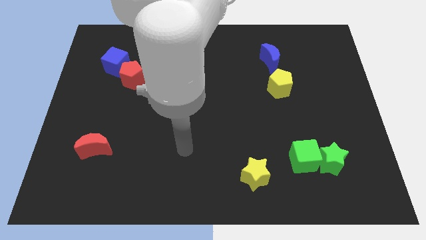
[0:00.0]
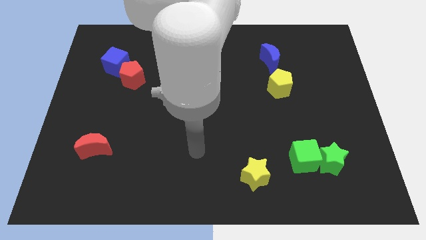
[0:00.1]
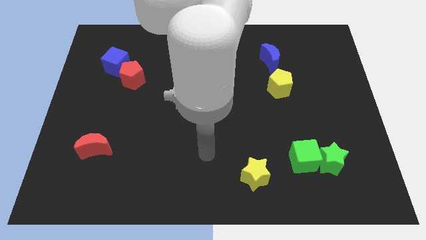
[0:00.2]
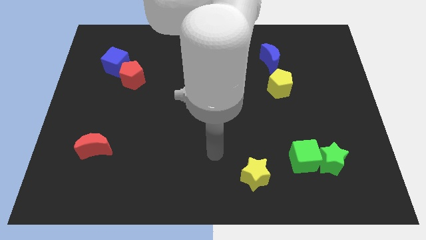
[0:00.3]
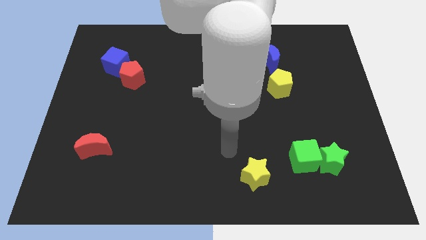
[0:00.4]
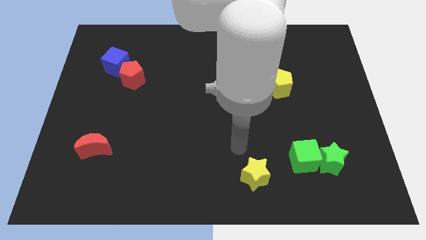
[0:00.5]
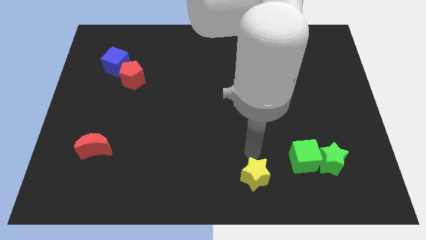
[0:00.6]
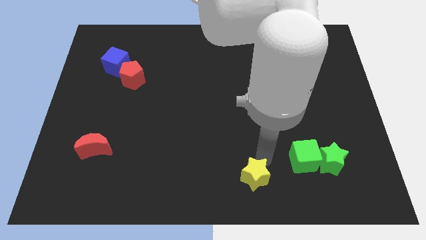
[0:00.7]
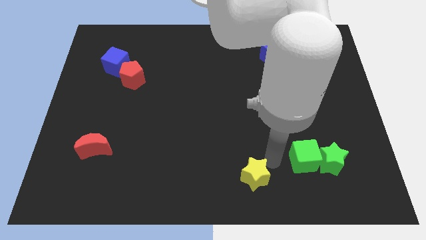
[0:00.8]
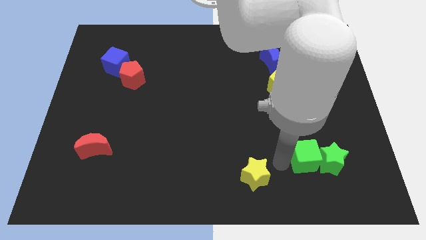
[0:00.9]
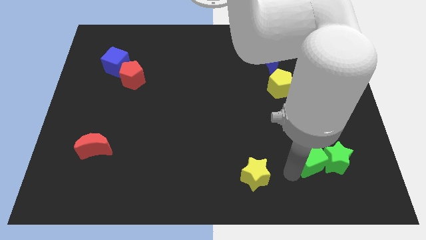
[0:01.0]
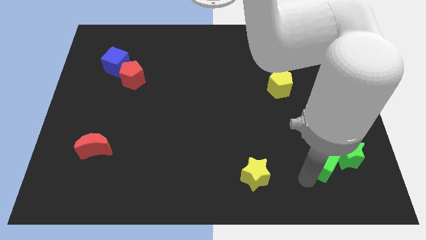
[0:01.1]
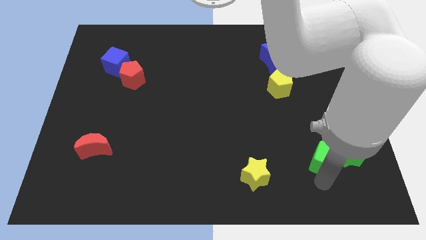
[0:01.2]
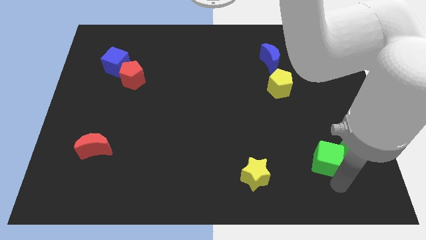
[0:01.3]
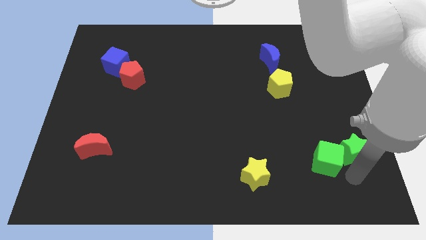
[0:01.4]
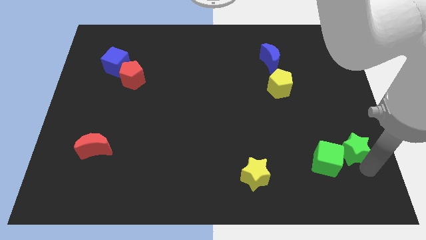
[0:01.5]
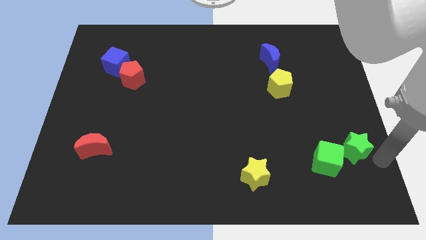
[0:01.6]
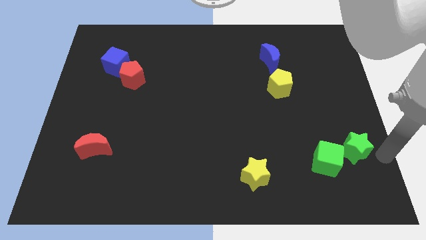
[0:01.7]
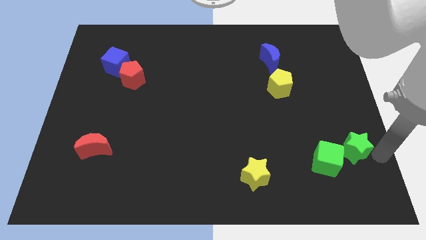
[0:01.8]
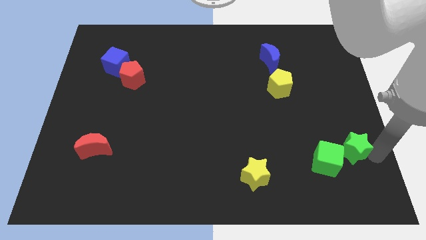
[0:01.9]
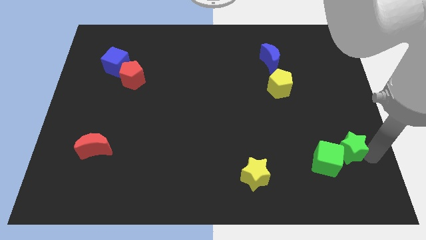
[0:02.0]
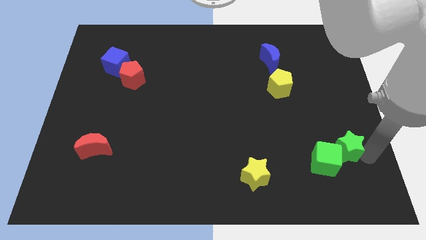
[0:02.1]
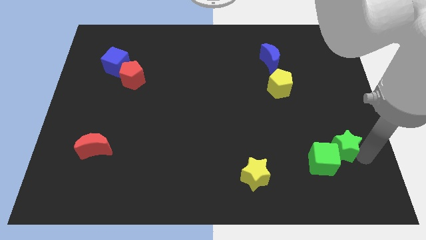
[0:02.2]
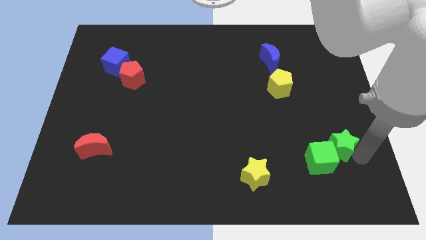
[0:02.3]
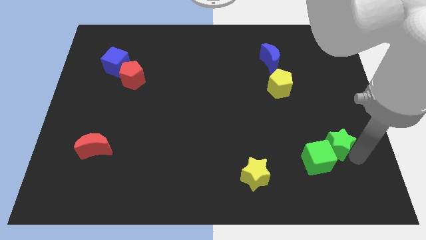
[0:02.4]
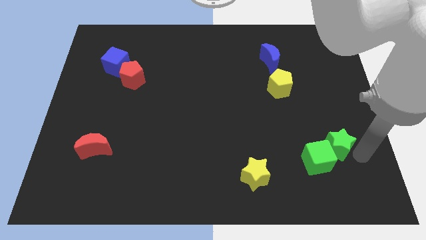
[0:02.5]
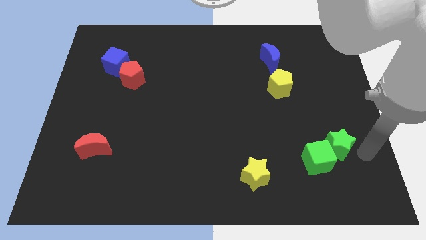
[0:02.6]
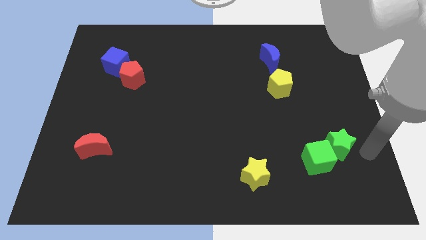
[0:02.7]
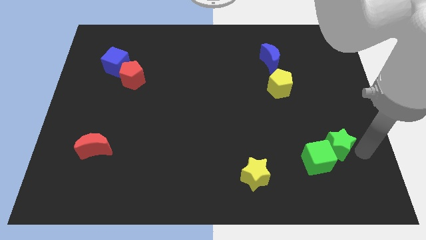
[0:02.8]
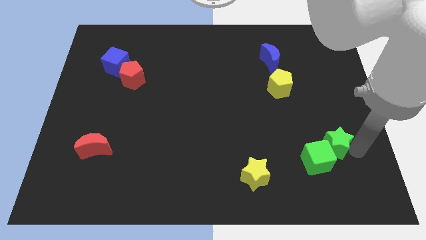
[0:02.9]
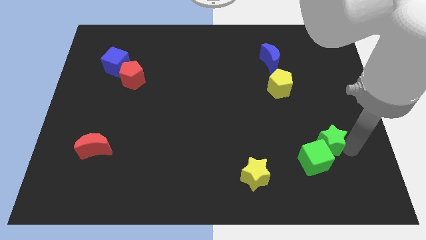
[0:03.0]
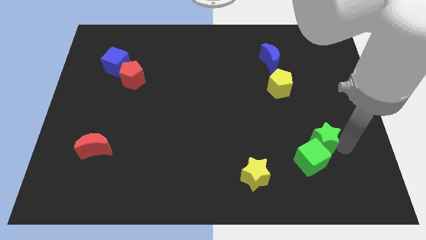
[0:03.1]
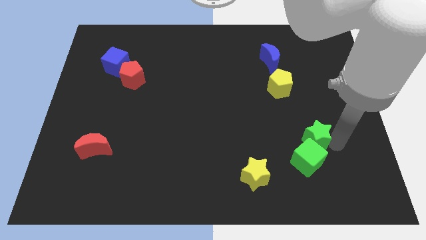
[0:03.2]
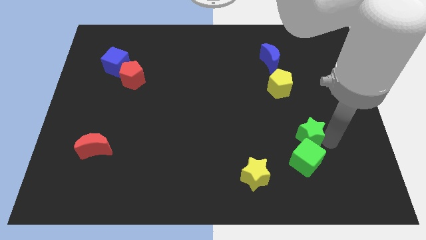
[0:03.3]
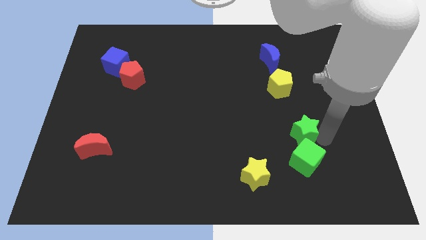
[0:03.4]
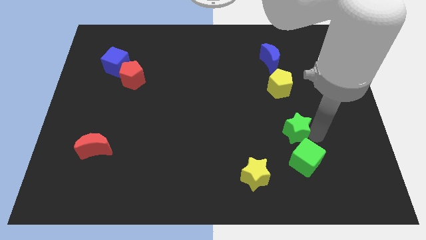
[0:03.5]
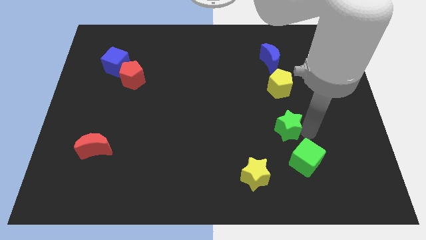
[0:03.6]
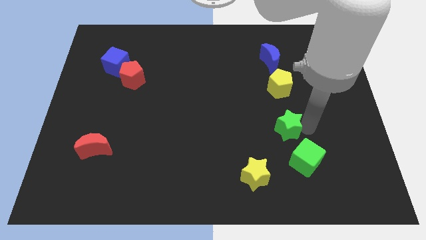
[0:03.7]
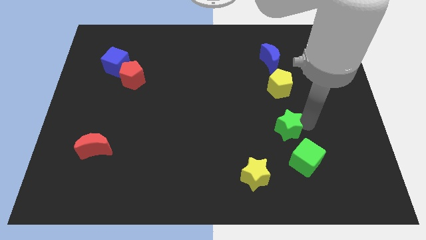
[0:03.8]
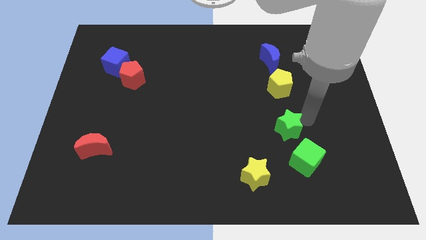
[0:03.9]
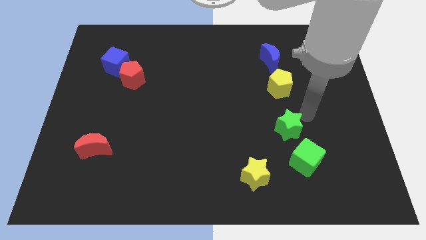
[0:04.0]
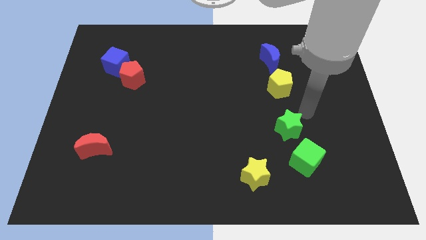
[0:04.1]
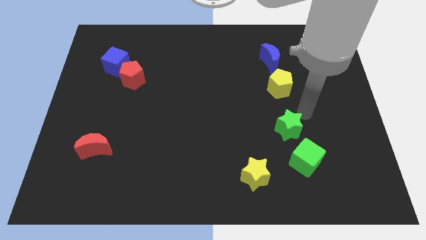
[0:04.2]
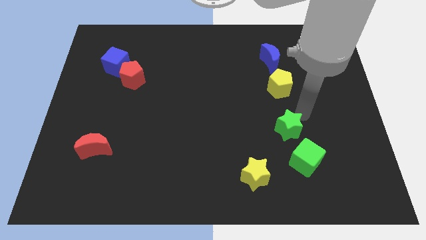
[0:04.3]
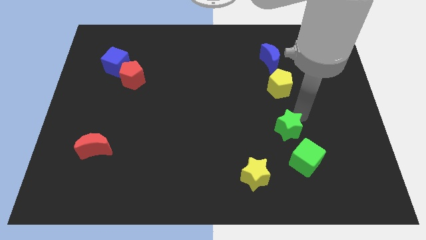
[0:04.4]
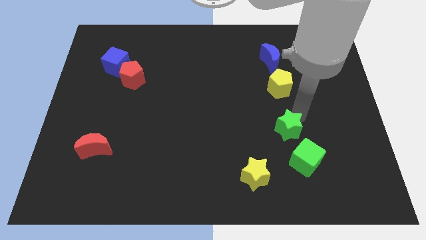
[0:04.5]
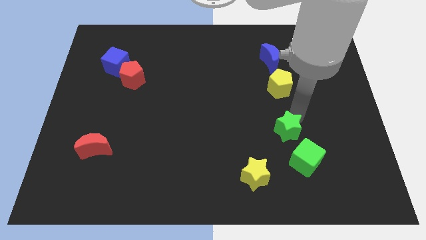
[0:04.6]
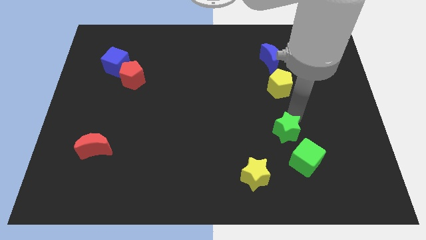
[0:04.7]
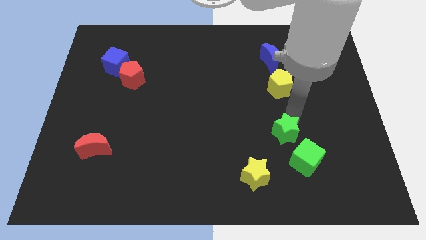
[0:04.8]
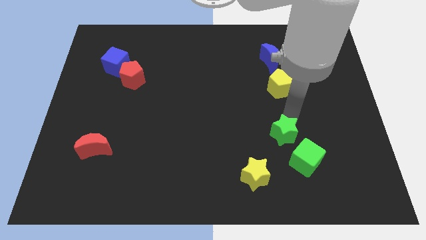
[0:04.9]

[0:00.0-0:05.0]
slightly slide the green star to the left

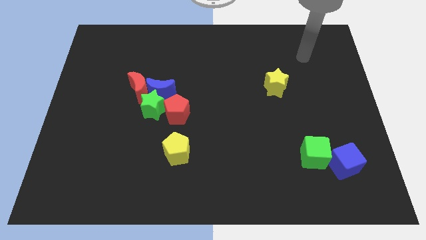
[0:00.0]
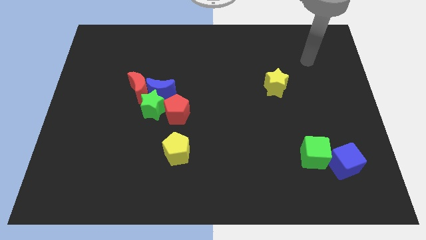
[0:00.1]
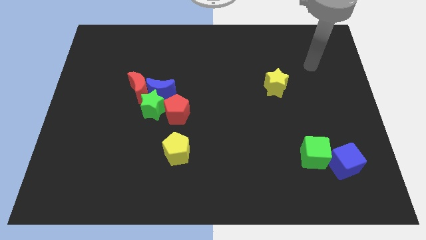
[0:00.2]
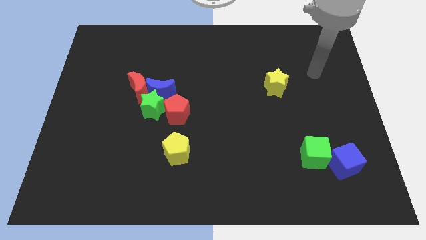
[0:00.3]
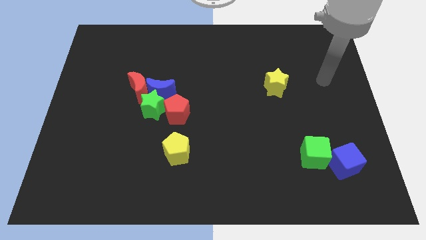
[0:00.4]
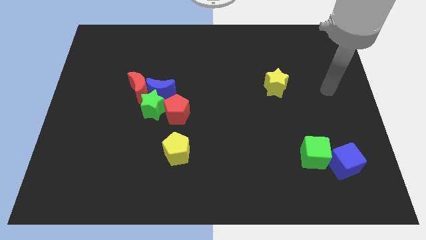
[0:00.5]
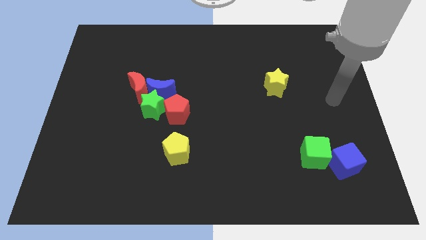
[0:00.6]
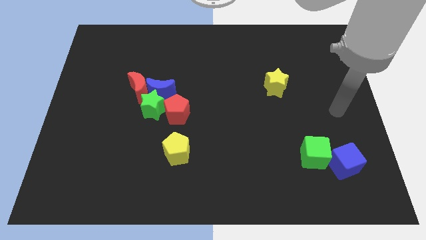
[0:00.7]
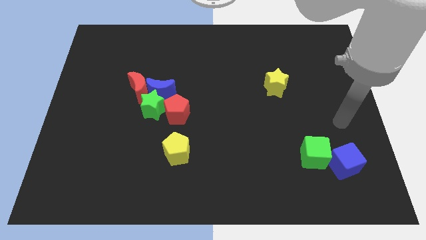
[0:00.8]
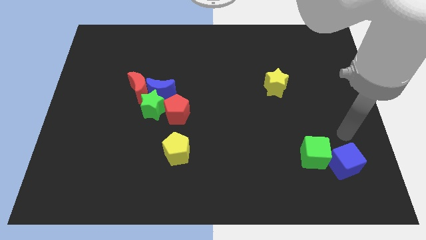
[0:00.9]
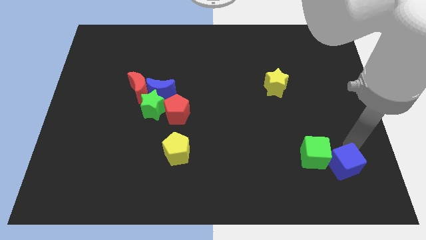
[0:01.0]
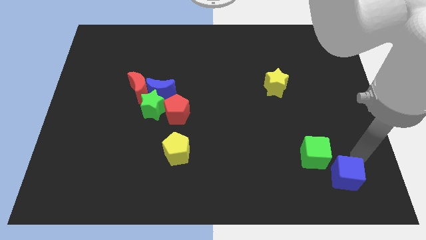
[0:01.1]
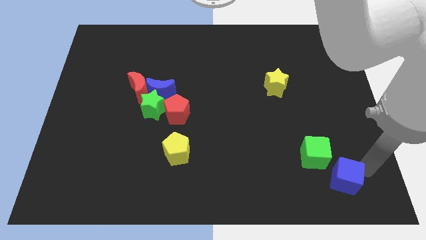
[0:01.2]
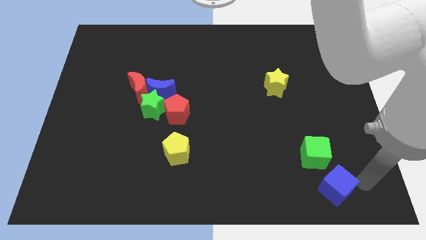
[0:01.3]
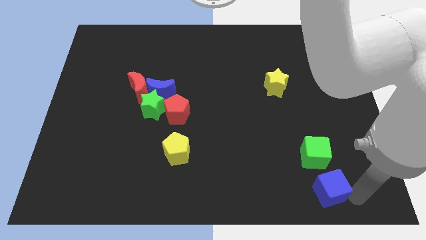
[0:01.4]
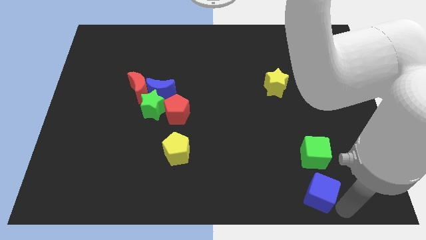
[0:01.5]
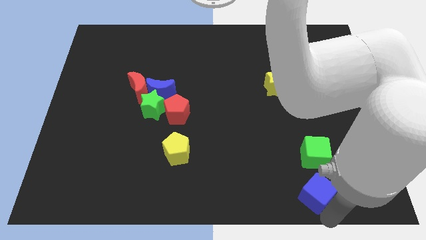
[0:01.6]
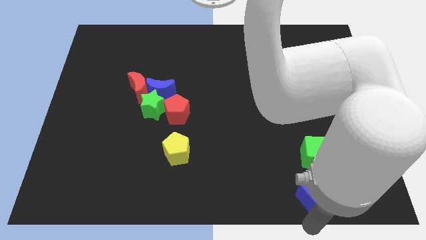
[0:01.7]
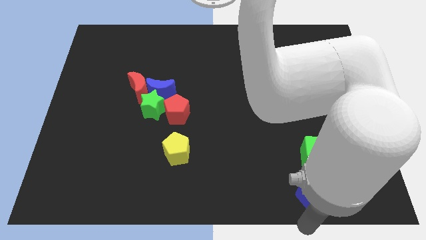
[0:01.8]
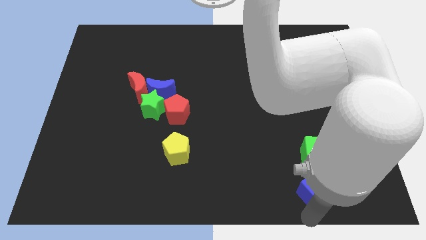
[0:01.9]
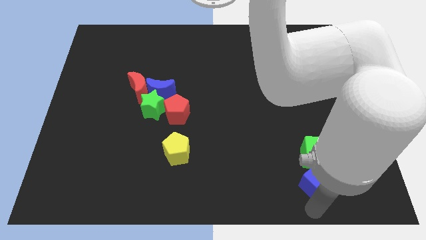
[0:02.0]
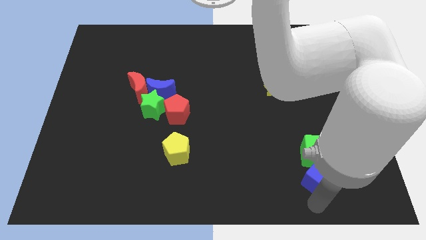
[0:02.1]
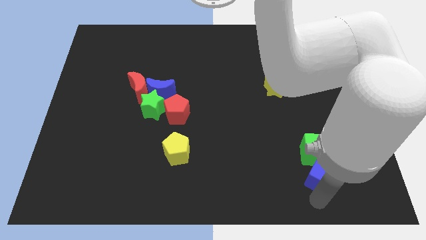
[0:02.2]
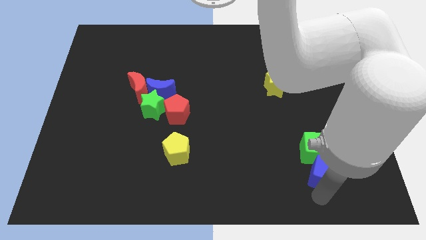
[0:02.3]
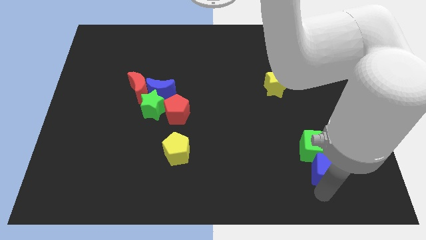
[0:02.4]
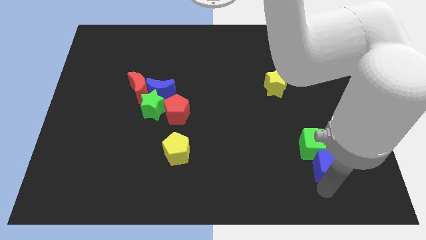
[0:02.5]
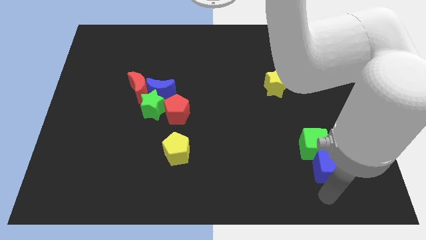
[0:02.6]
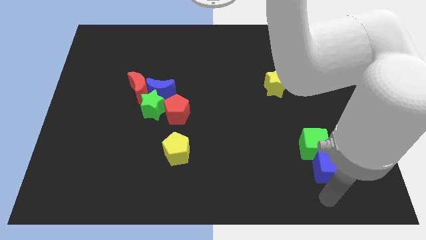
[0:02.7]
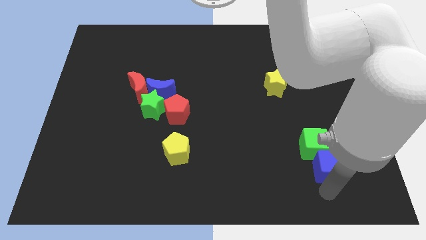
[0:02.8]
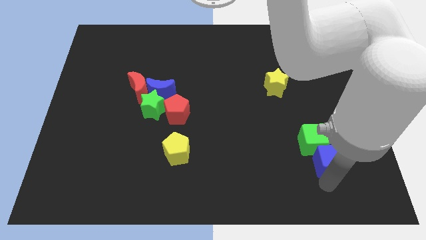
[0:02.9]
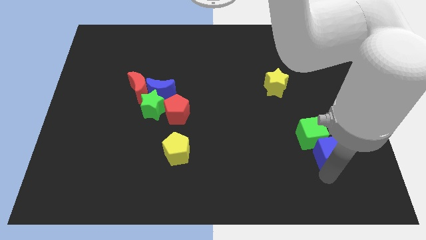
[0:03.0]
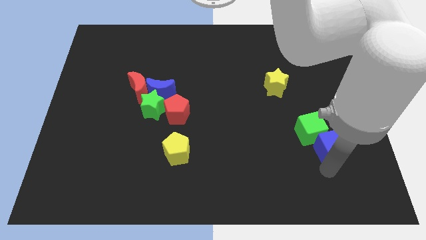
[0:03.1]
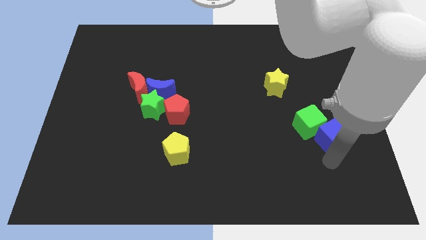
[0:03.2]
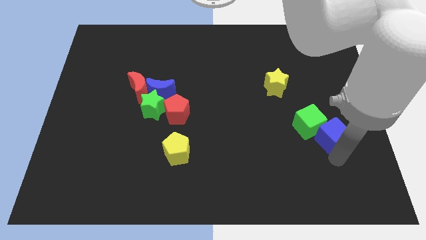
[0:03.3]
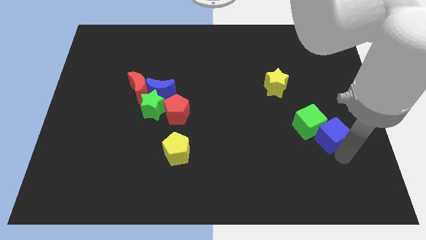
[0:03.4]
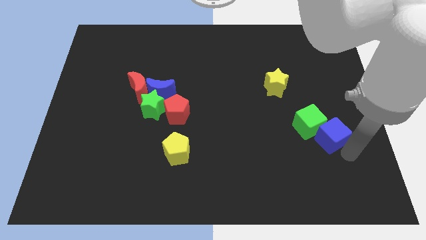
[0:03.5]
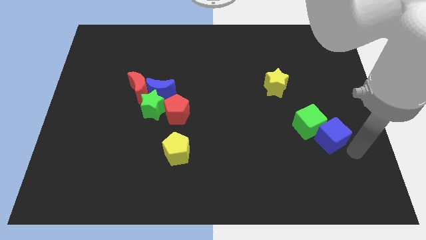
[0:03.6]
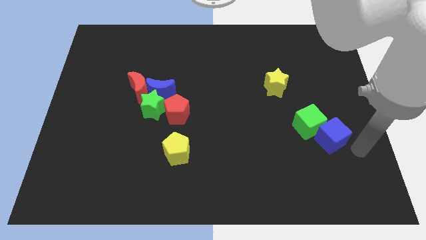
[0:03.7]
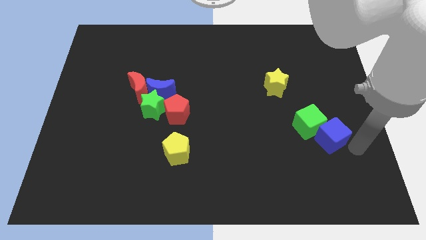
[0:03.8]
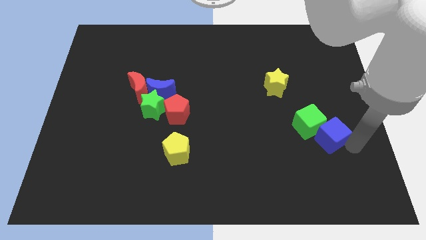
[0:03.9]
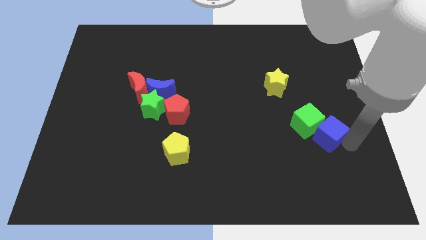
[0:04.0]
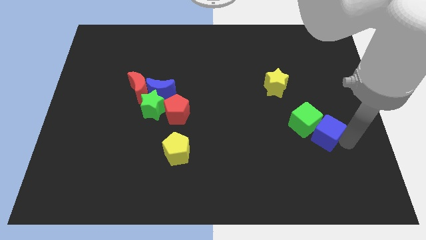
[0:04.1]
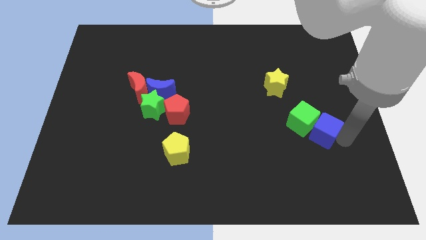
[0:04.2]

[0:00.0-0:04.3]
push the blue cube up and left diagonally a little
